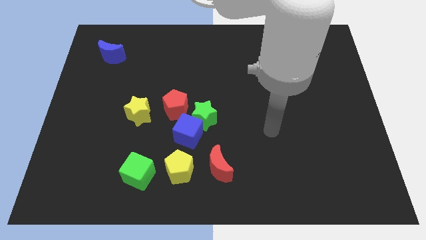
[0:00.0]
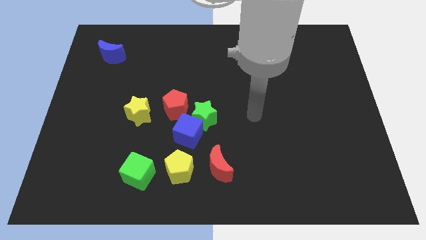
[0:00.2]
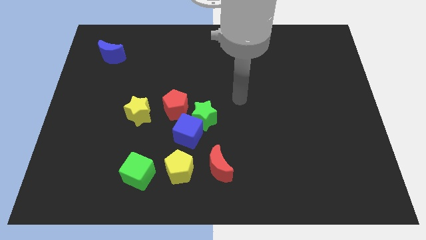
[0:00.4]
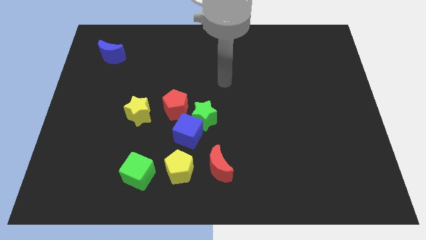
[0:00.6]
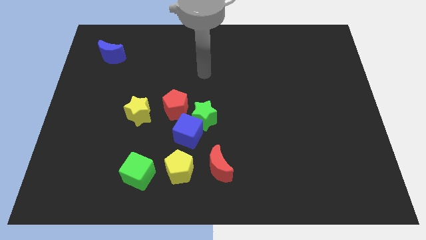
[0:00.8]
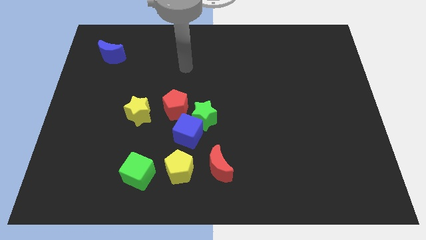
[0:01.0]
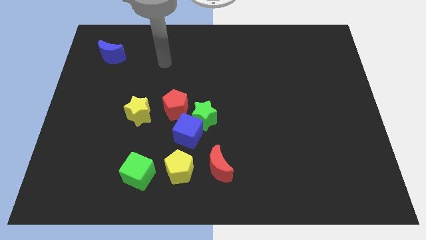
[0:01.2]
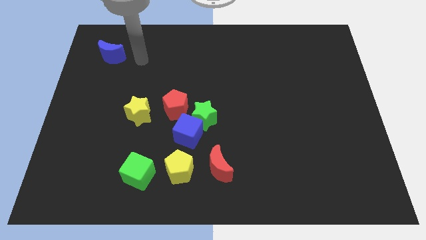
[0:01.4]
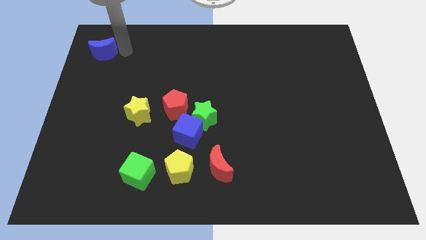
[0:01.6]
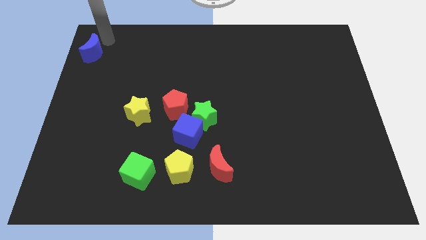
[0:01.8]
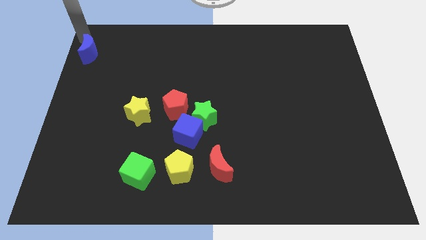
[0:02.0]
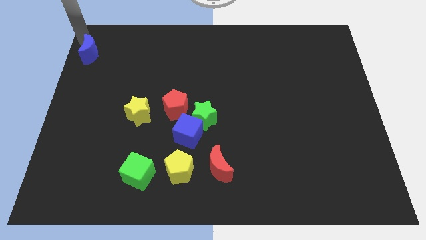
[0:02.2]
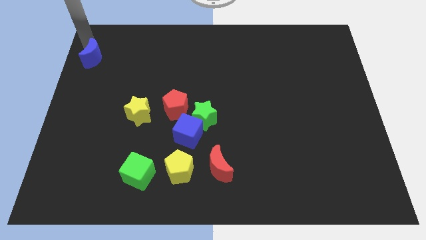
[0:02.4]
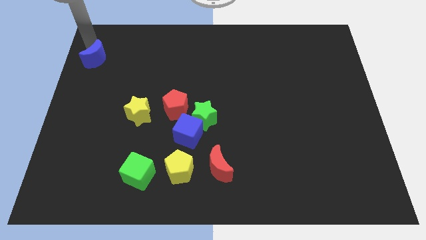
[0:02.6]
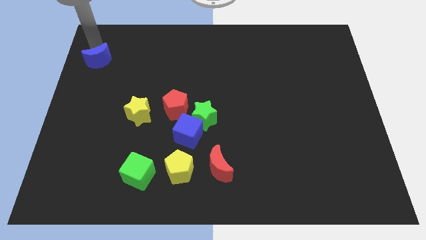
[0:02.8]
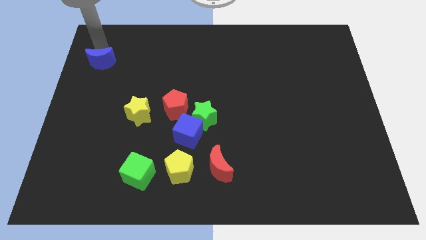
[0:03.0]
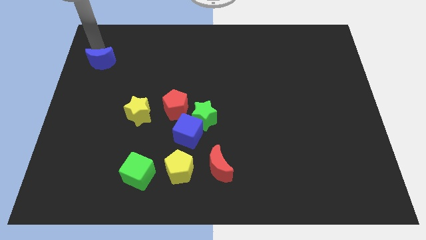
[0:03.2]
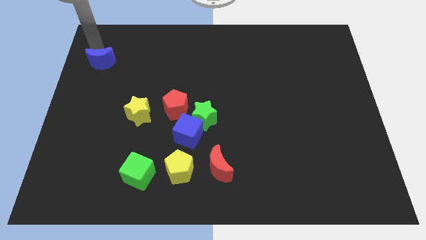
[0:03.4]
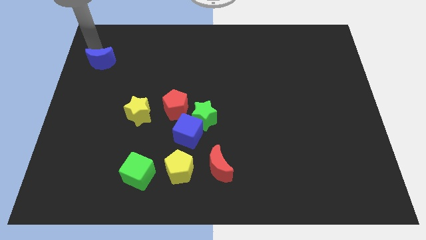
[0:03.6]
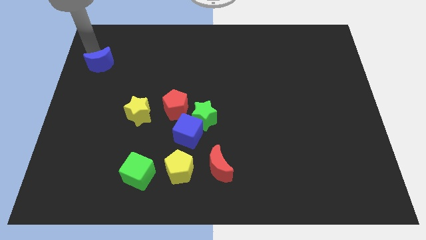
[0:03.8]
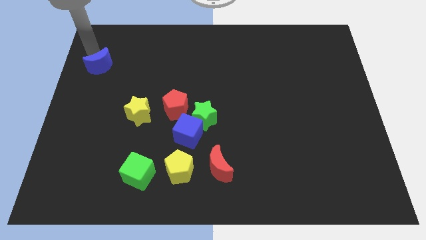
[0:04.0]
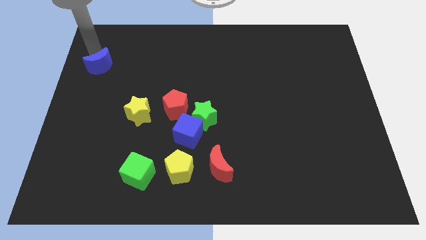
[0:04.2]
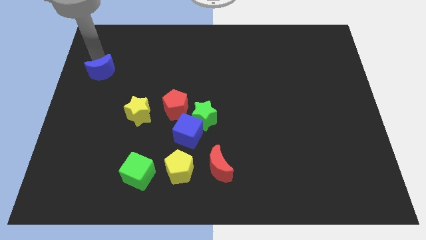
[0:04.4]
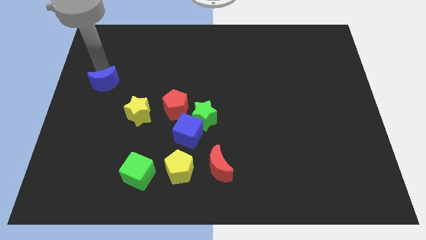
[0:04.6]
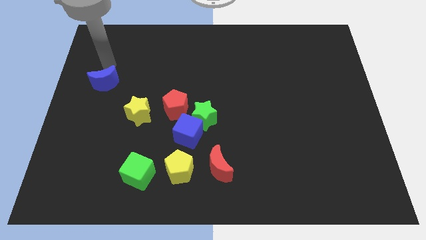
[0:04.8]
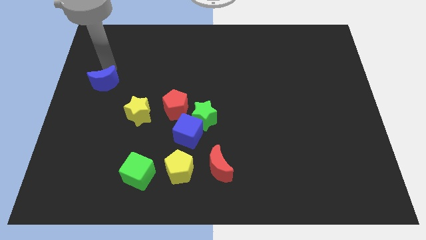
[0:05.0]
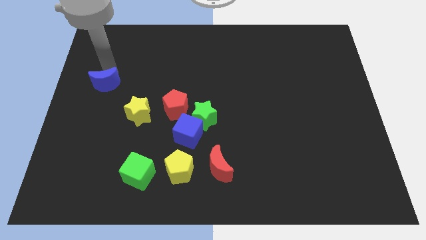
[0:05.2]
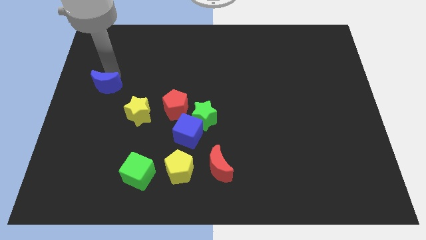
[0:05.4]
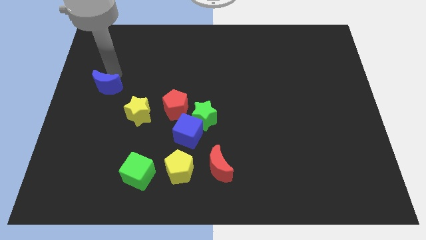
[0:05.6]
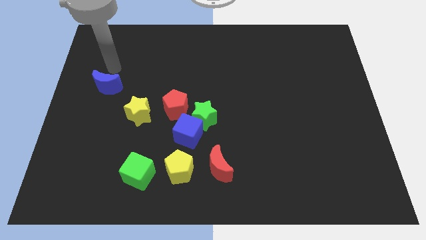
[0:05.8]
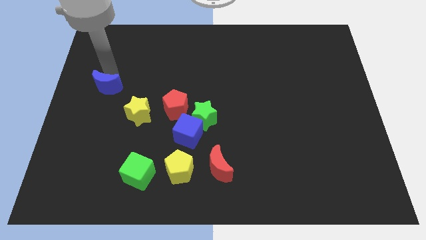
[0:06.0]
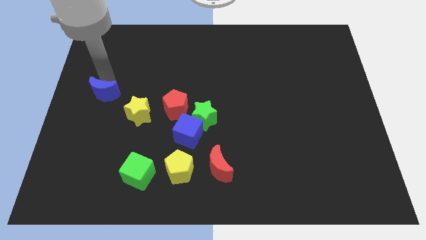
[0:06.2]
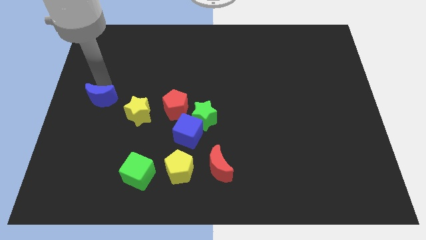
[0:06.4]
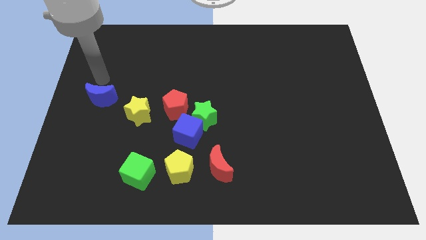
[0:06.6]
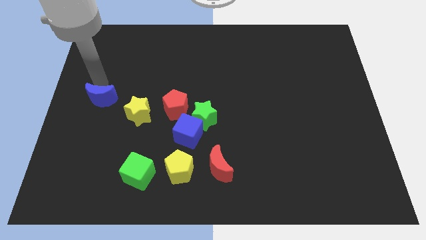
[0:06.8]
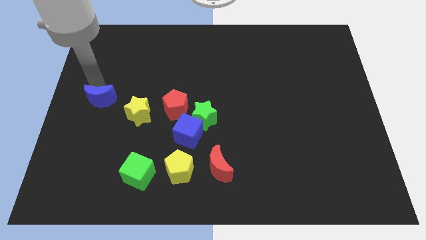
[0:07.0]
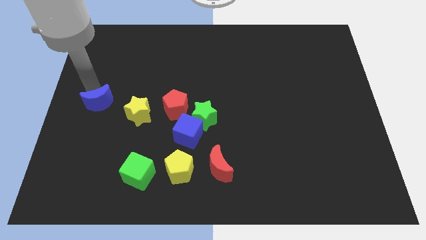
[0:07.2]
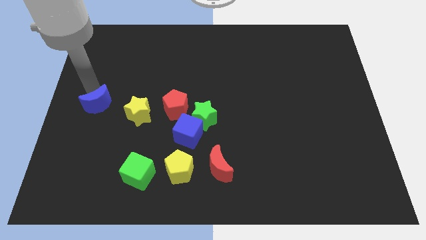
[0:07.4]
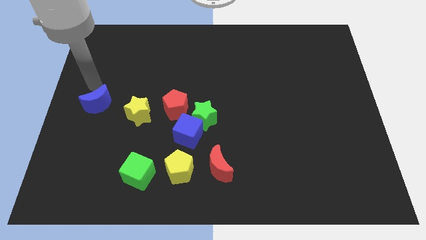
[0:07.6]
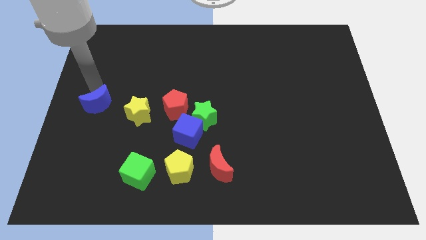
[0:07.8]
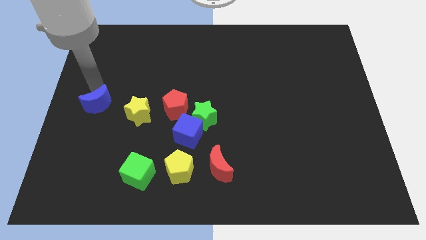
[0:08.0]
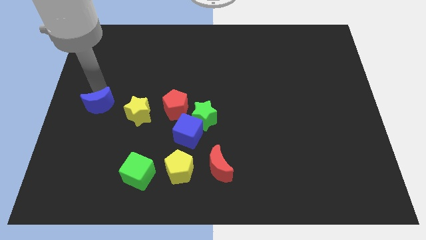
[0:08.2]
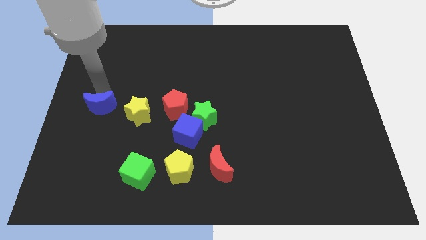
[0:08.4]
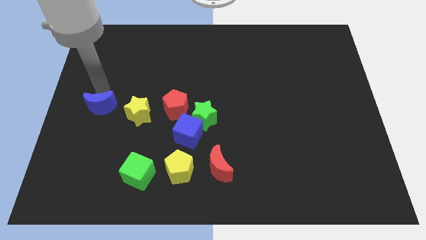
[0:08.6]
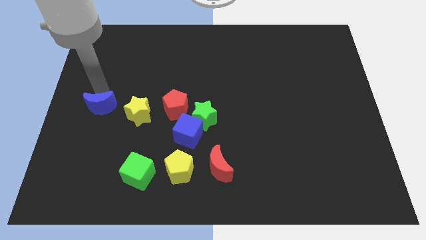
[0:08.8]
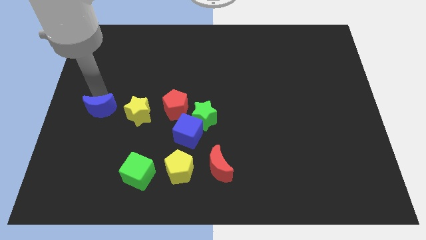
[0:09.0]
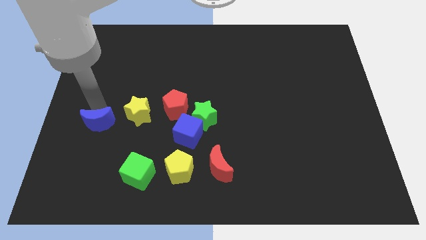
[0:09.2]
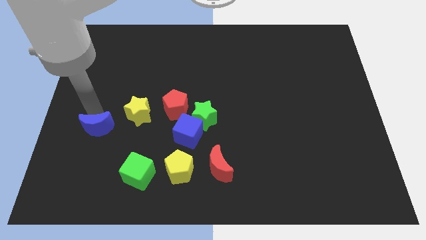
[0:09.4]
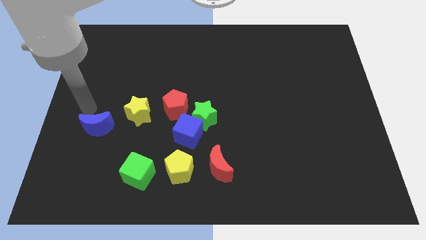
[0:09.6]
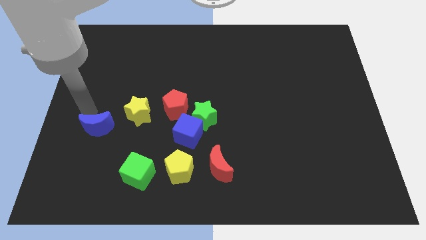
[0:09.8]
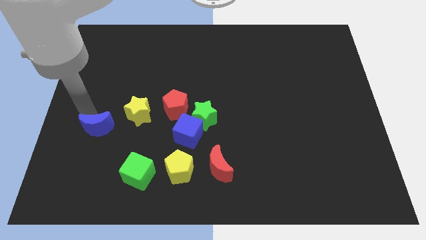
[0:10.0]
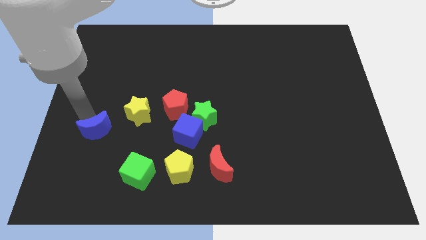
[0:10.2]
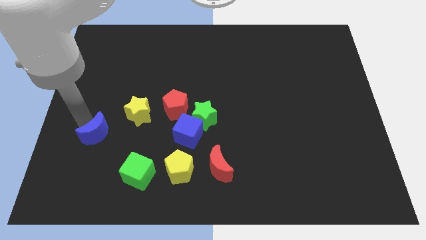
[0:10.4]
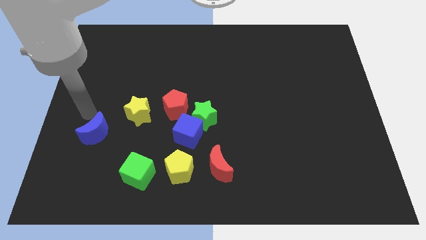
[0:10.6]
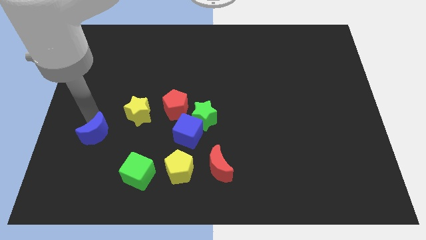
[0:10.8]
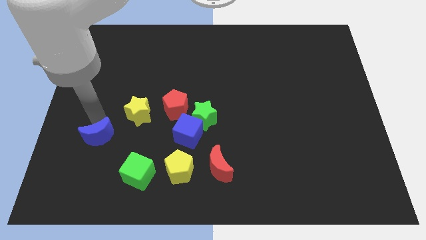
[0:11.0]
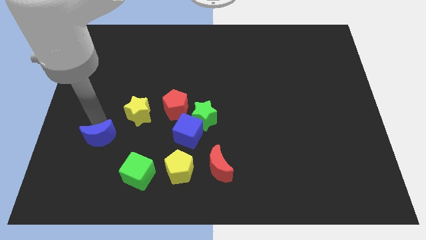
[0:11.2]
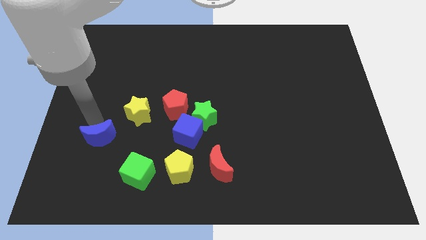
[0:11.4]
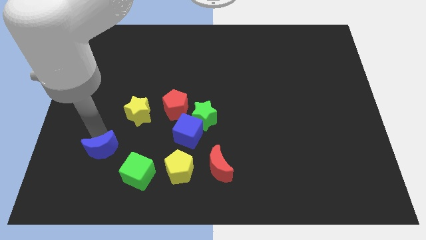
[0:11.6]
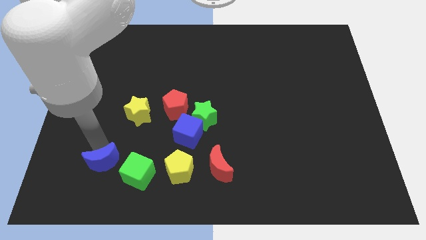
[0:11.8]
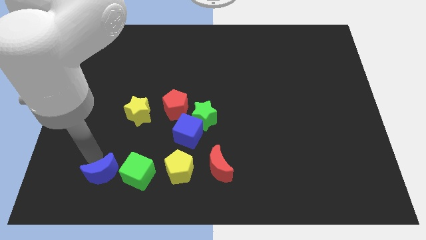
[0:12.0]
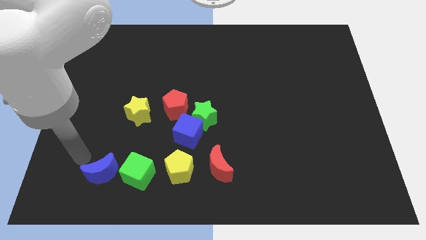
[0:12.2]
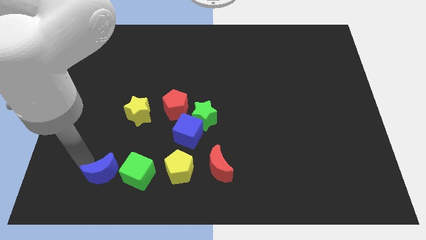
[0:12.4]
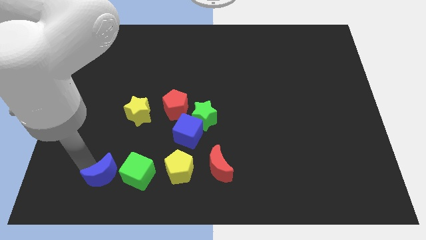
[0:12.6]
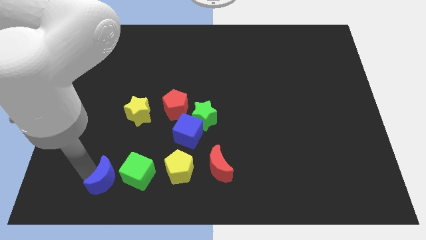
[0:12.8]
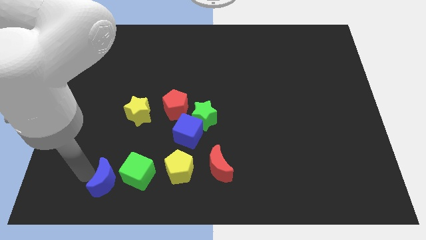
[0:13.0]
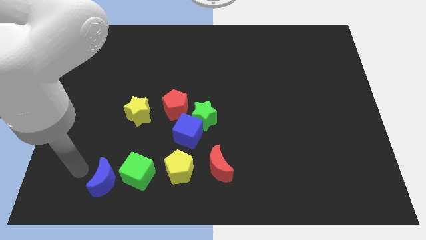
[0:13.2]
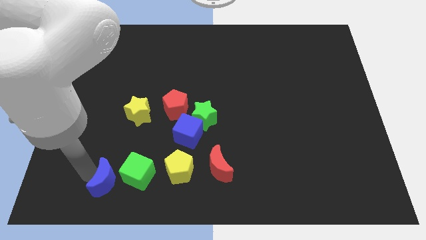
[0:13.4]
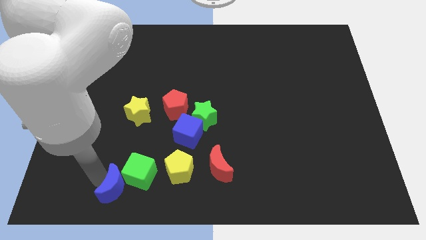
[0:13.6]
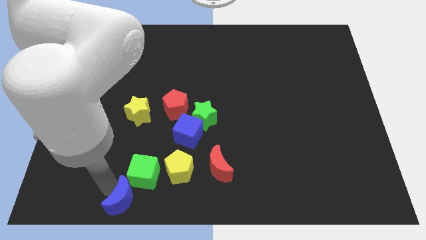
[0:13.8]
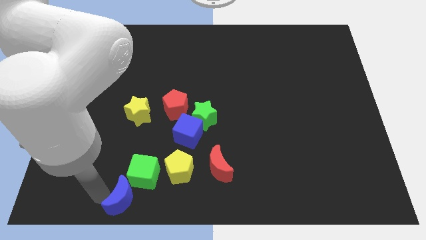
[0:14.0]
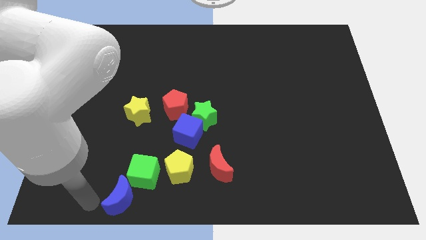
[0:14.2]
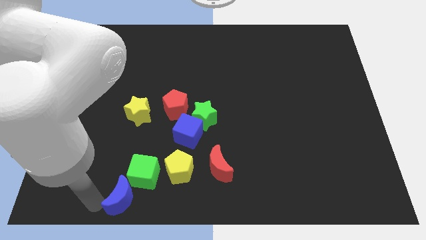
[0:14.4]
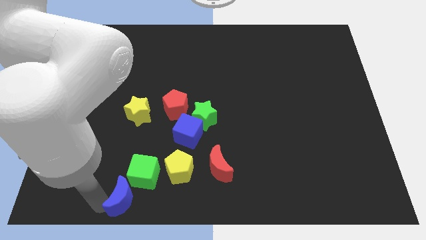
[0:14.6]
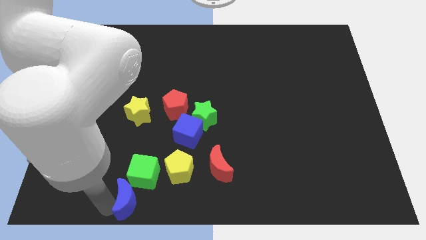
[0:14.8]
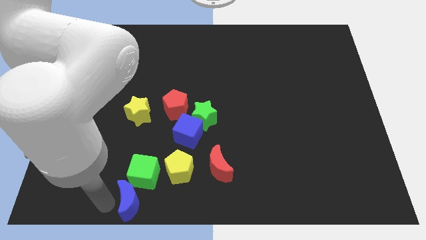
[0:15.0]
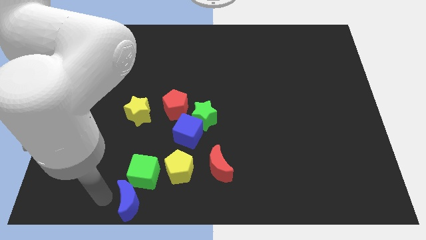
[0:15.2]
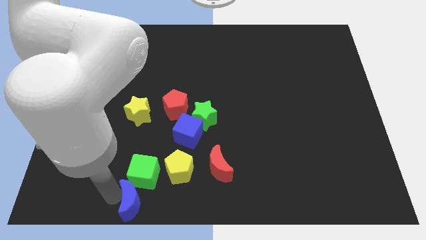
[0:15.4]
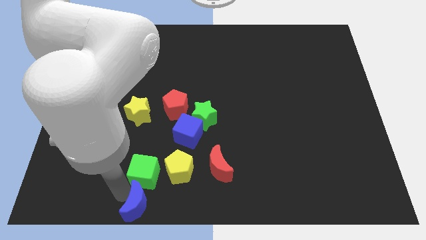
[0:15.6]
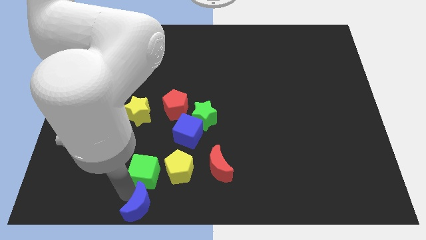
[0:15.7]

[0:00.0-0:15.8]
move the blue moon to the bottom

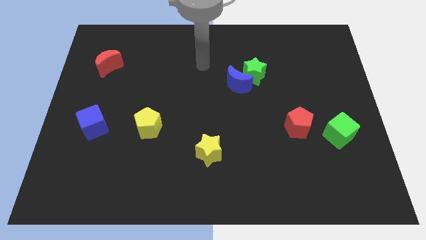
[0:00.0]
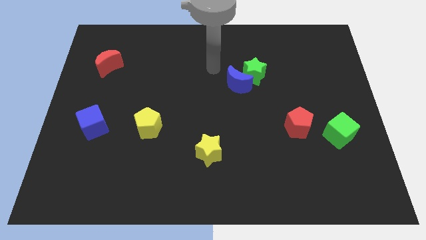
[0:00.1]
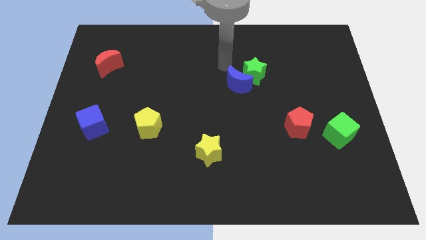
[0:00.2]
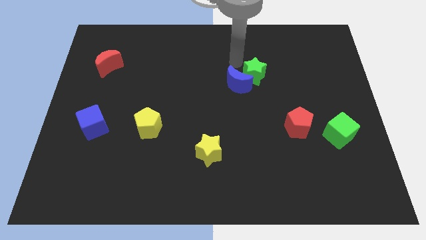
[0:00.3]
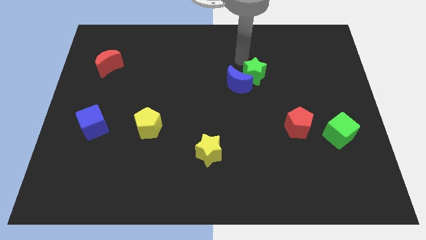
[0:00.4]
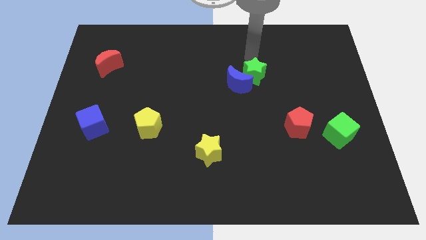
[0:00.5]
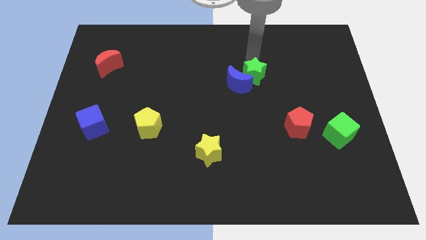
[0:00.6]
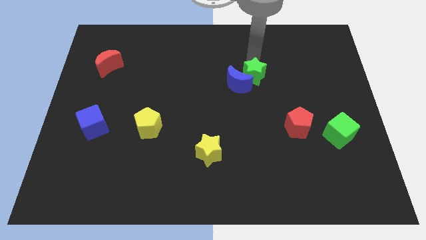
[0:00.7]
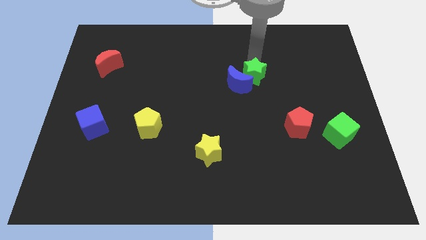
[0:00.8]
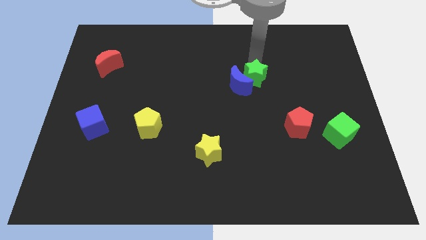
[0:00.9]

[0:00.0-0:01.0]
move the green star to the center
